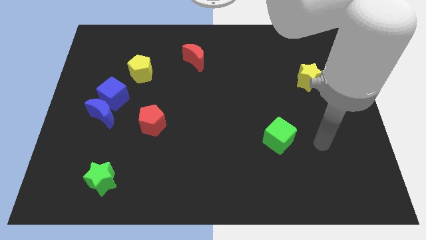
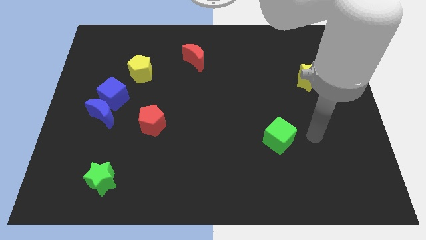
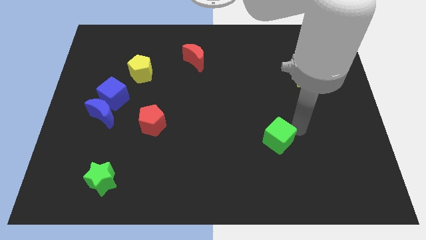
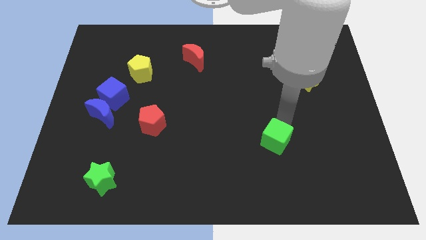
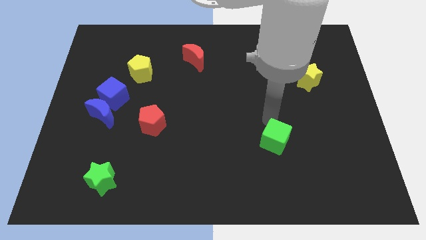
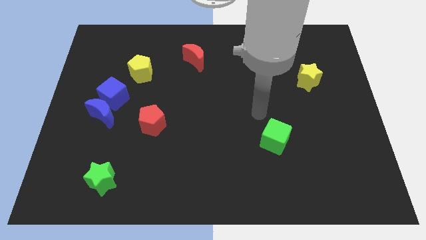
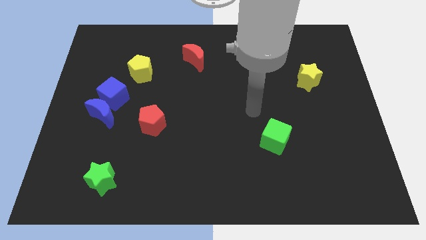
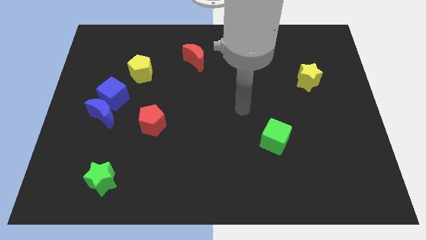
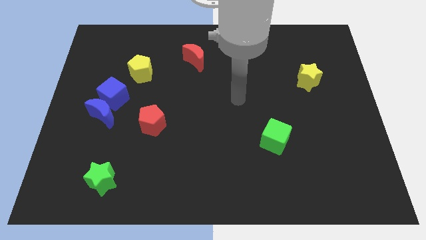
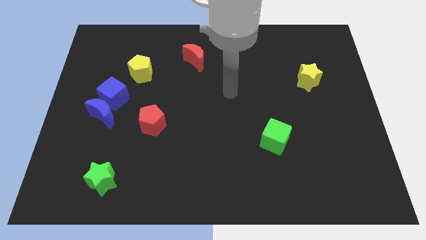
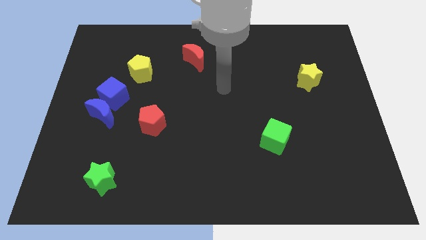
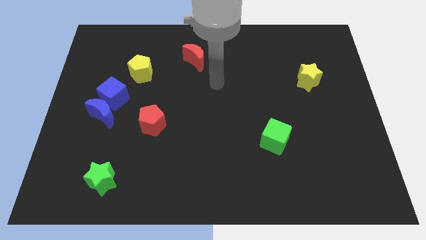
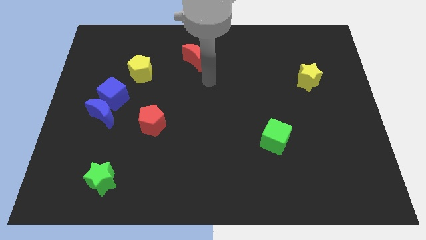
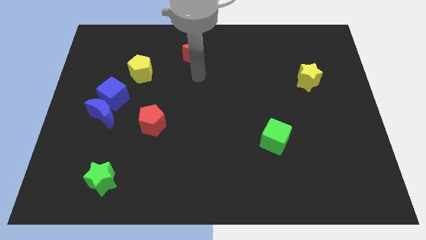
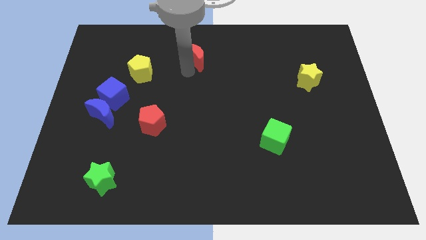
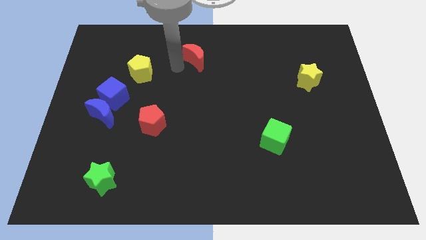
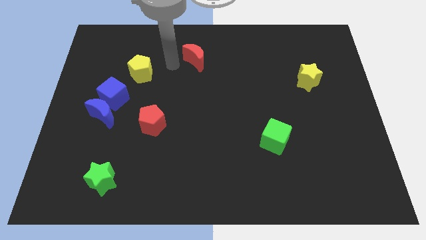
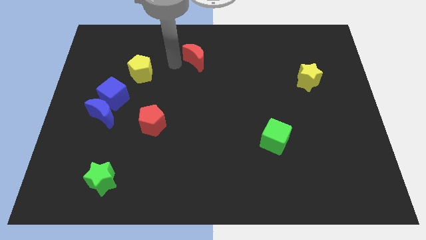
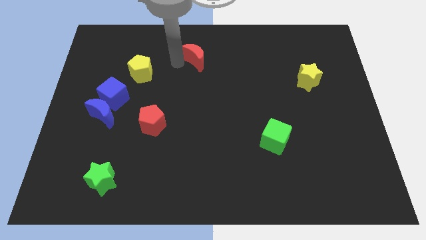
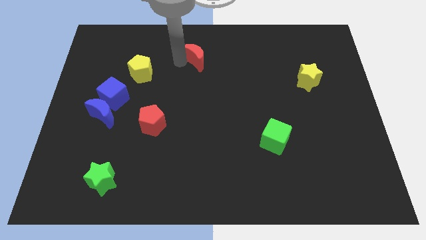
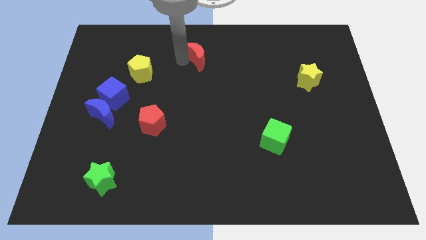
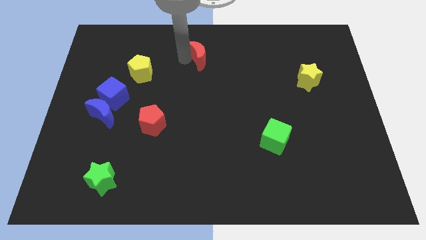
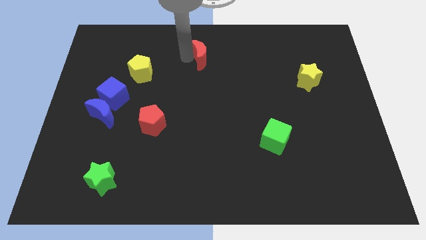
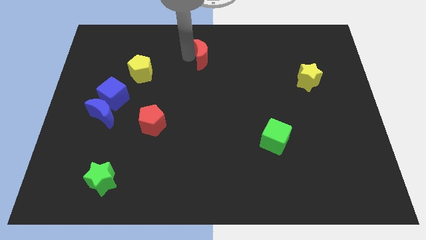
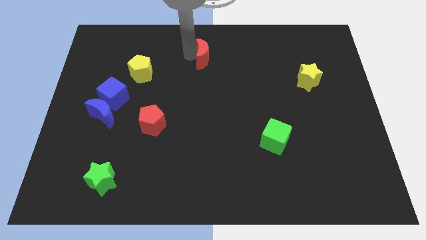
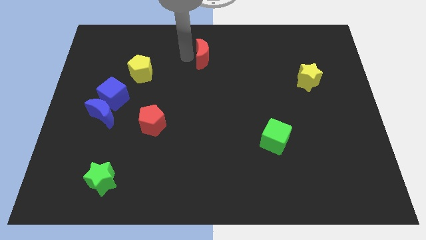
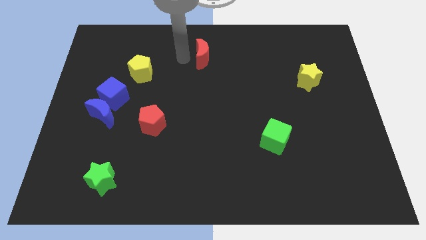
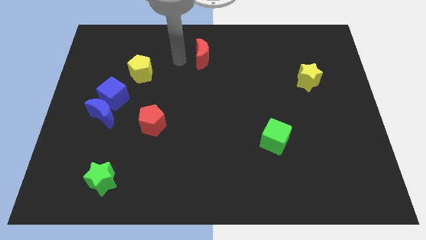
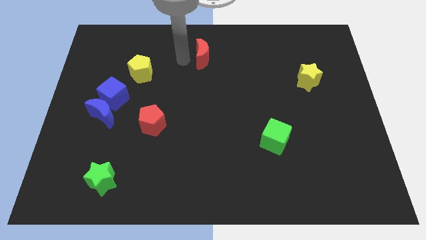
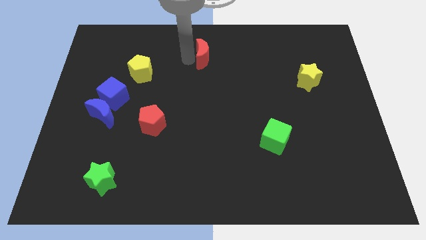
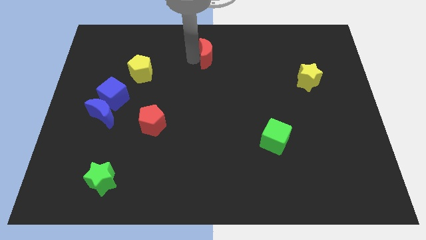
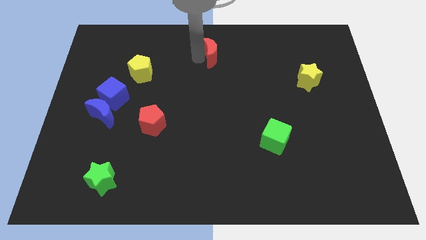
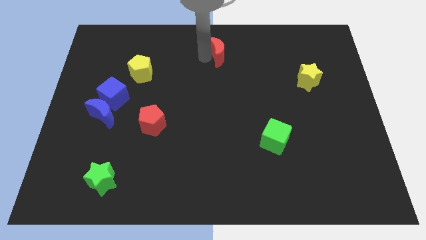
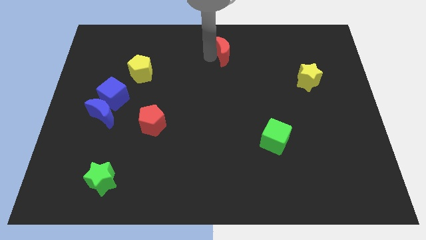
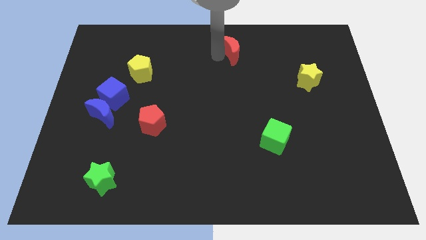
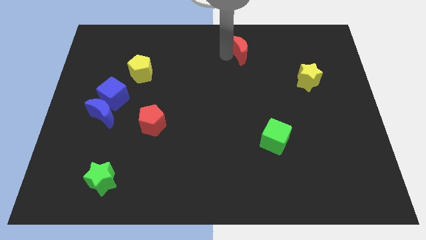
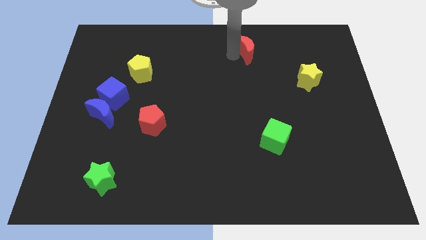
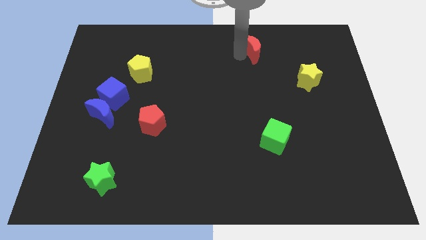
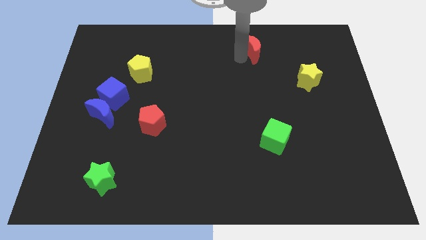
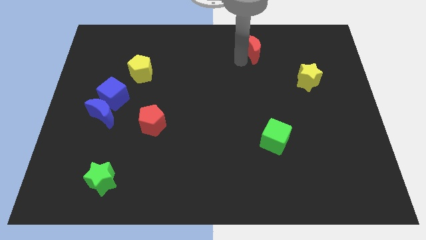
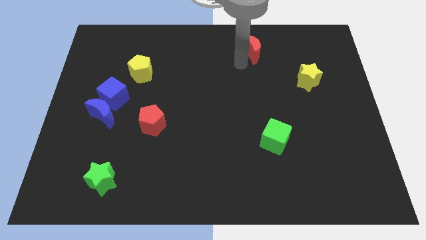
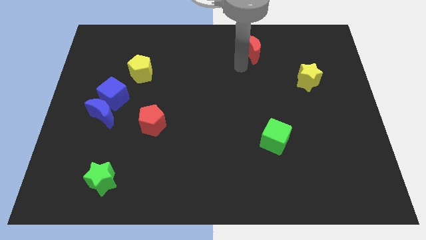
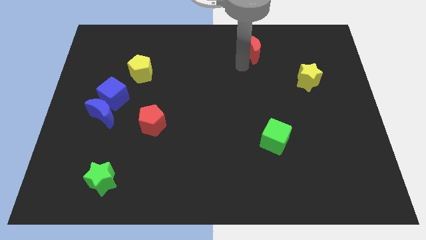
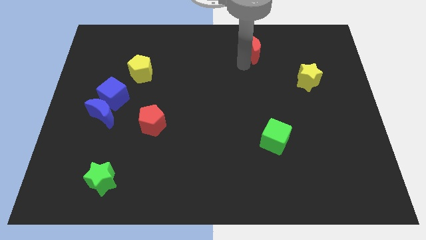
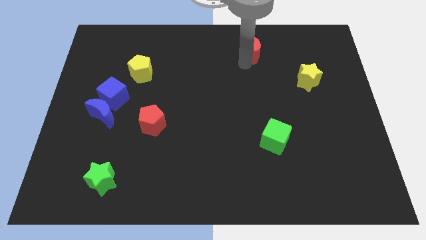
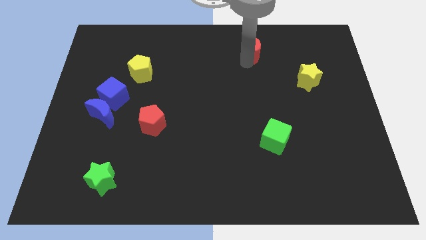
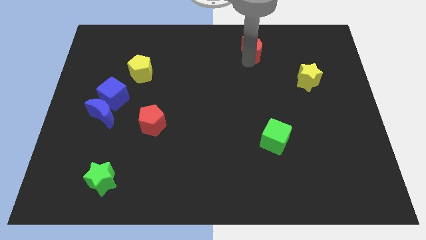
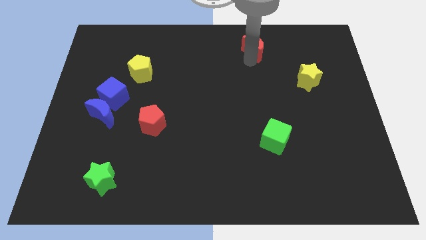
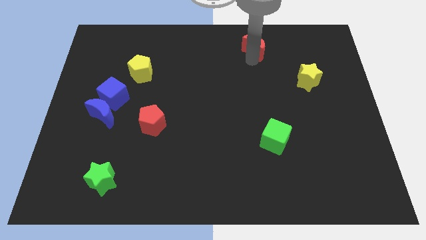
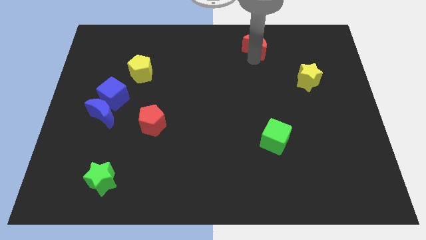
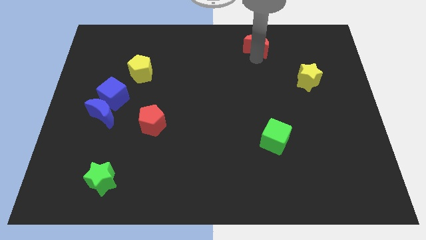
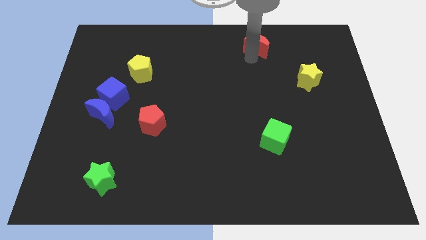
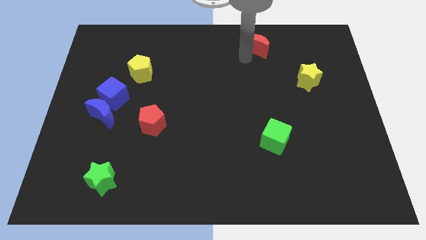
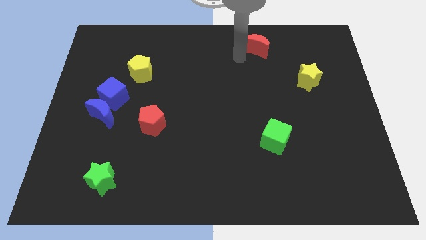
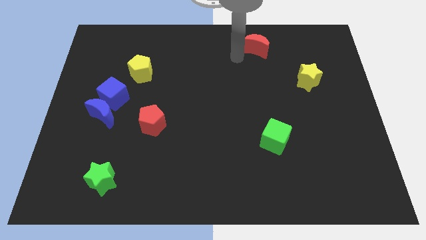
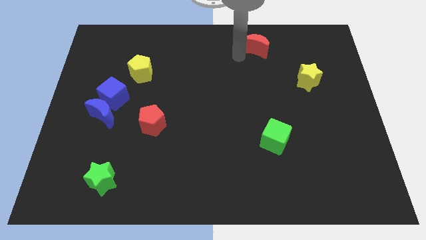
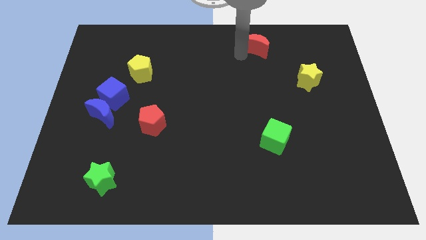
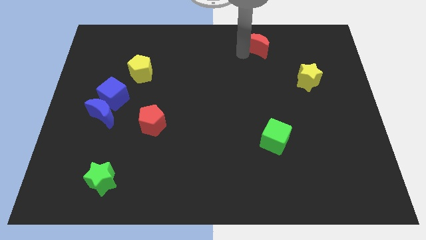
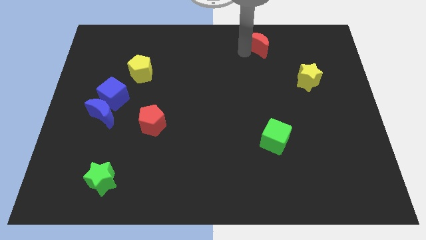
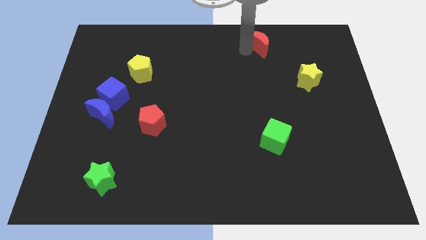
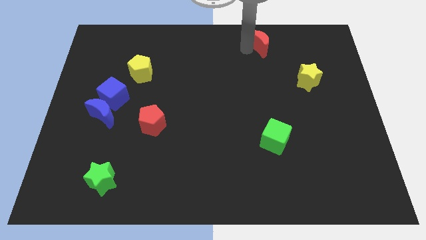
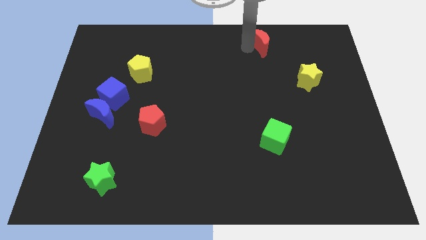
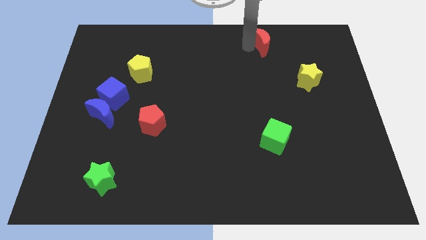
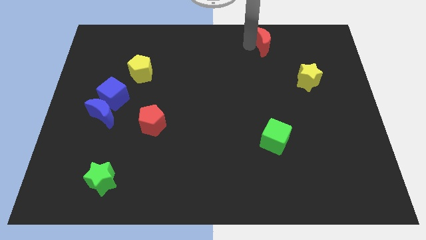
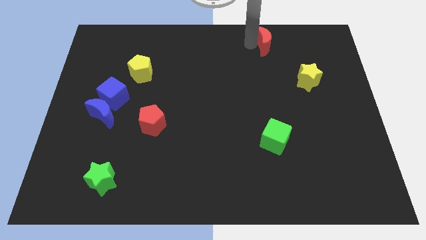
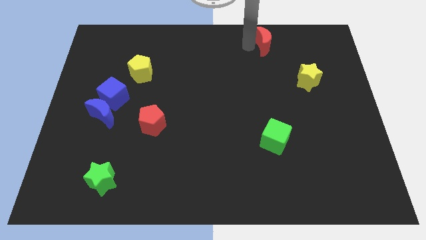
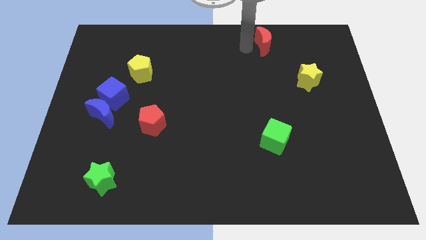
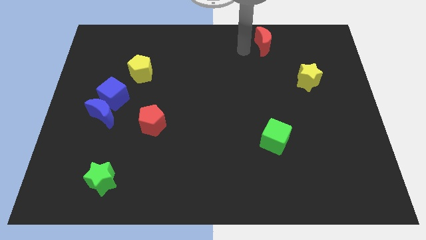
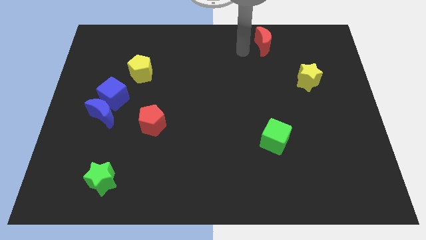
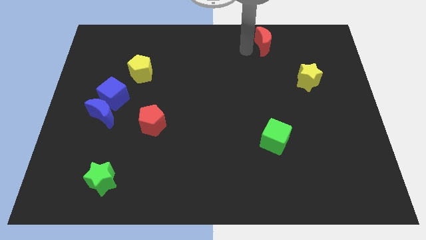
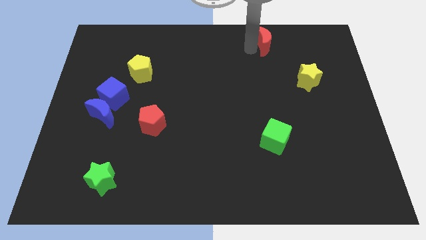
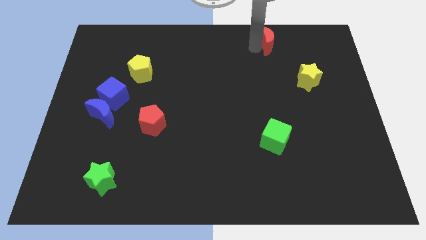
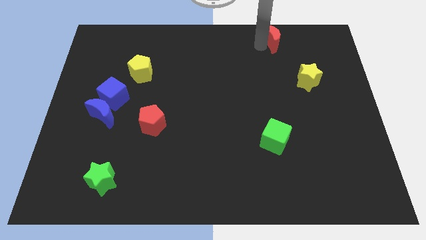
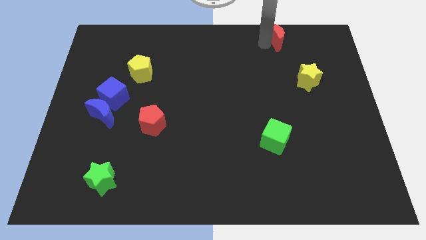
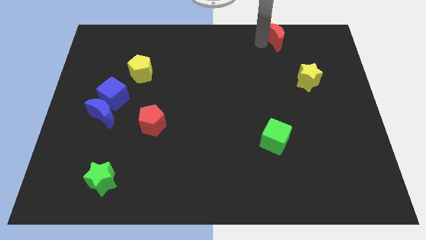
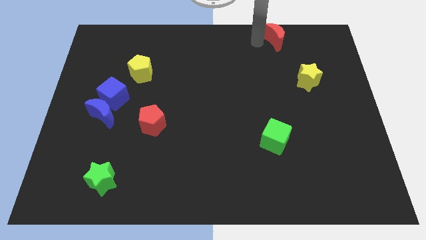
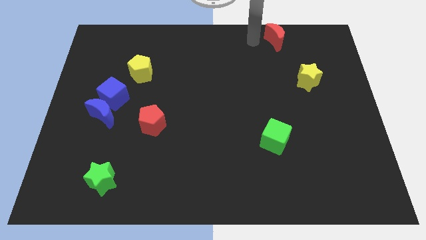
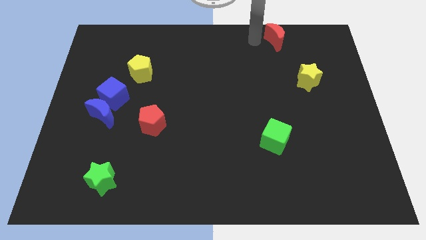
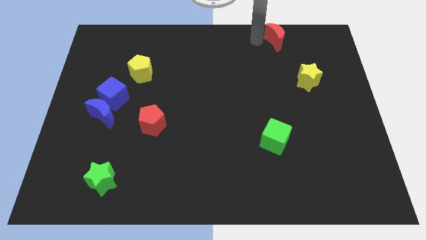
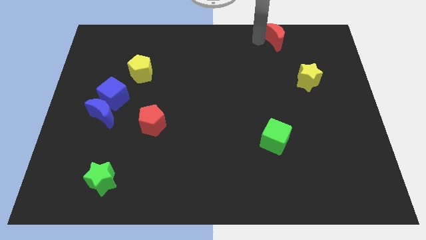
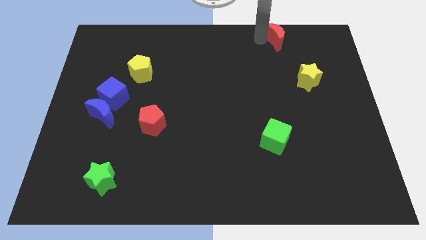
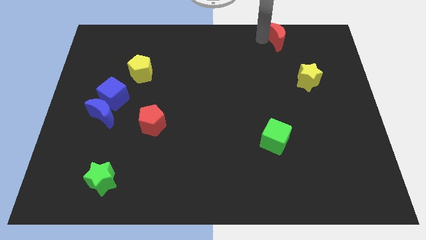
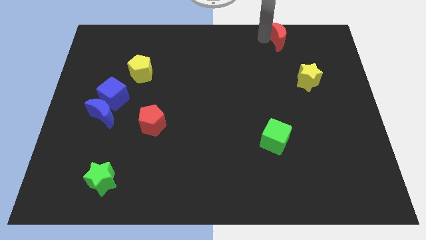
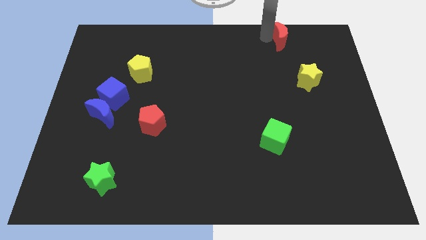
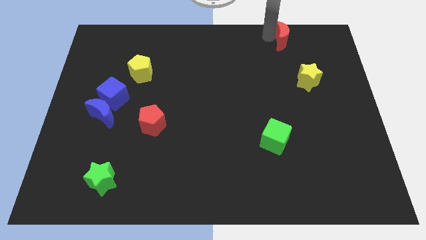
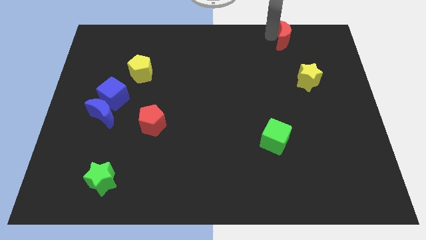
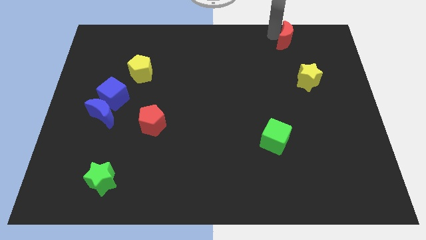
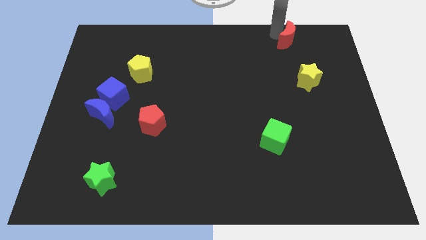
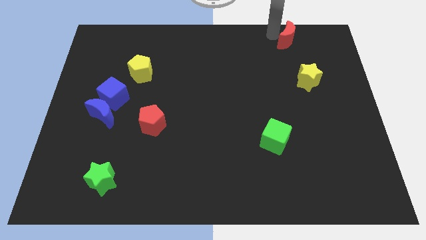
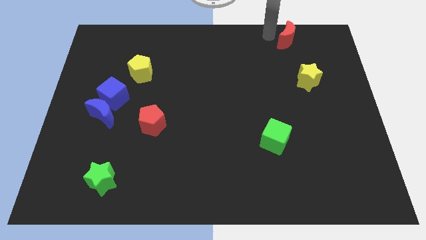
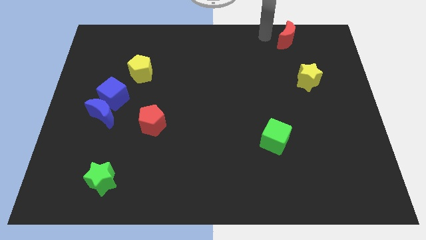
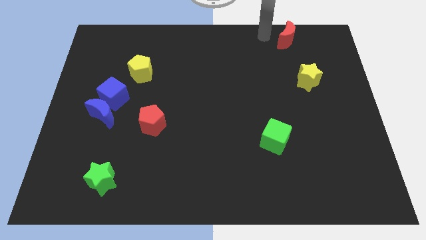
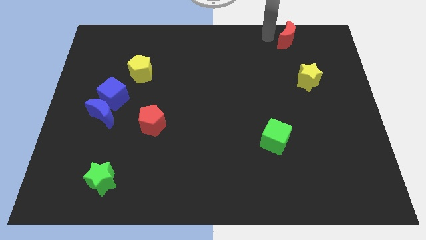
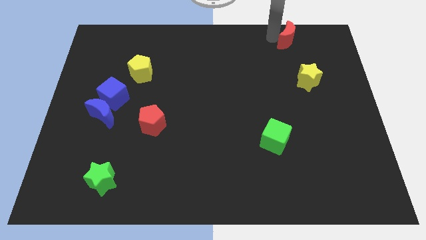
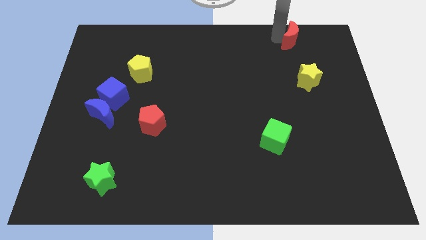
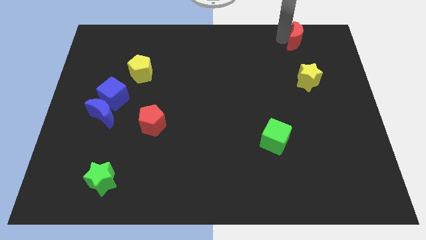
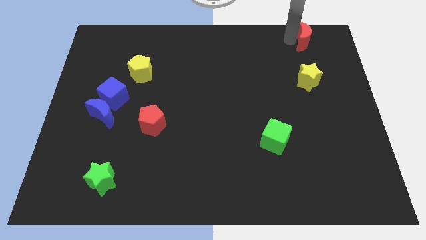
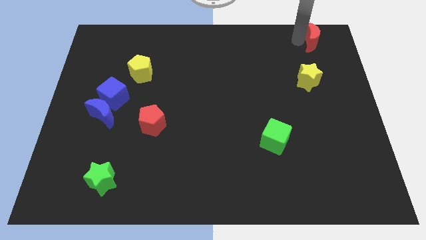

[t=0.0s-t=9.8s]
put the red moon to the upper right corner
